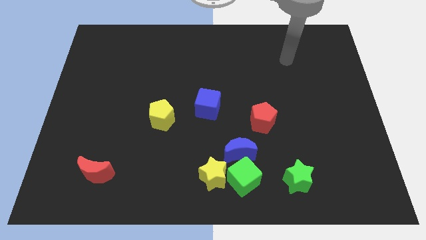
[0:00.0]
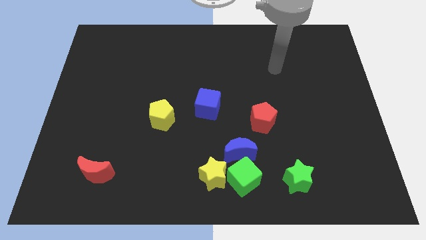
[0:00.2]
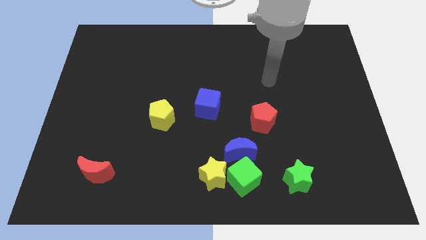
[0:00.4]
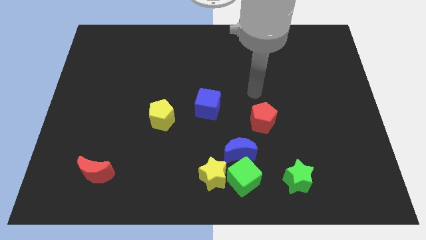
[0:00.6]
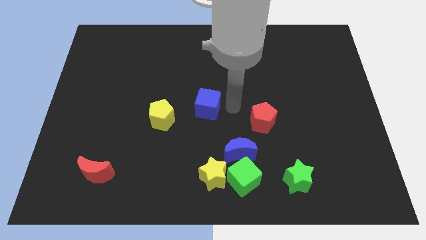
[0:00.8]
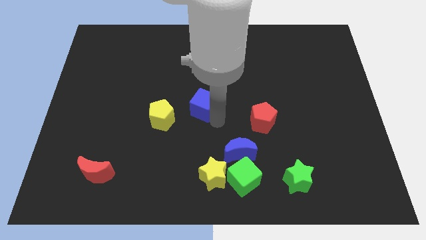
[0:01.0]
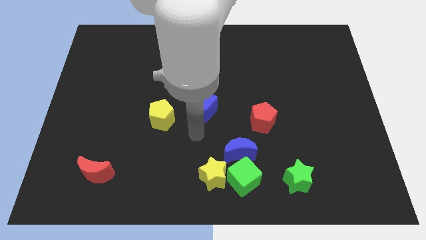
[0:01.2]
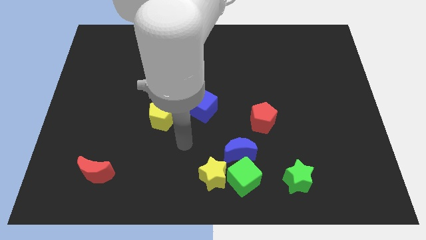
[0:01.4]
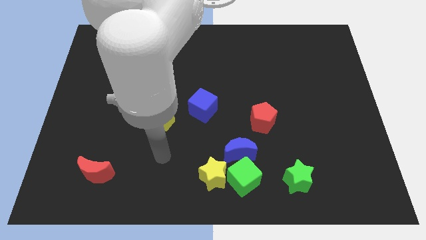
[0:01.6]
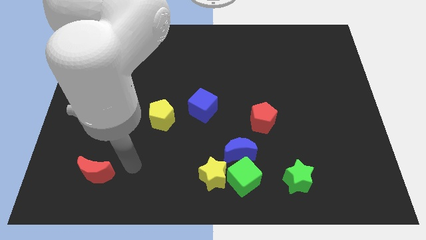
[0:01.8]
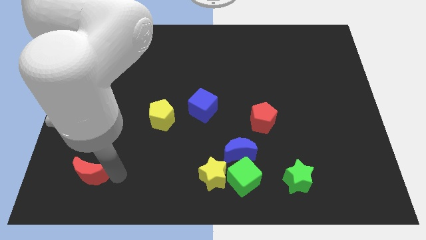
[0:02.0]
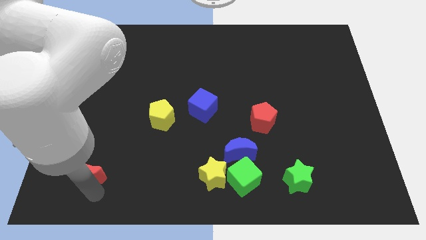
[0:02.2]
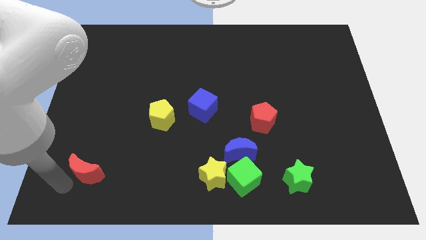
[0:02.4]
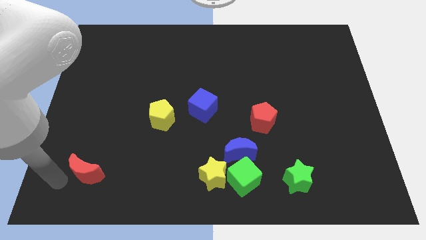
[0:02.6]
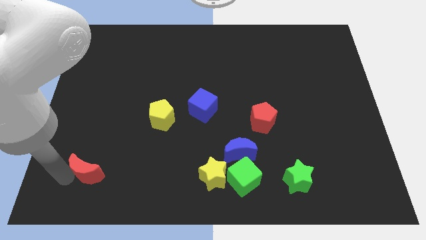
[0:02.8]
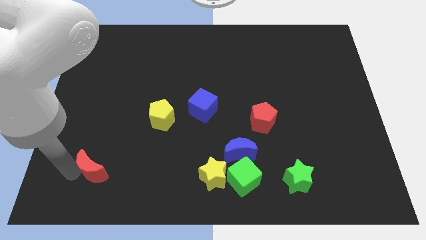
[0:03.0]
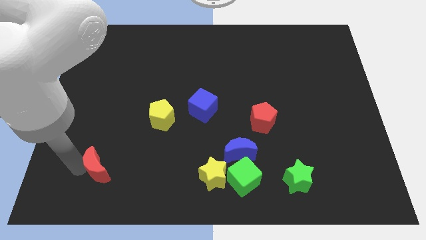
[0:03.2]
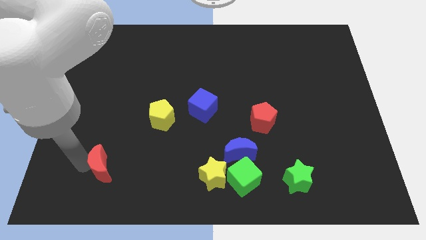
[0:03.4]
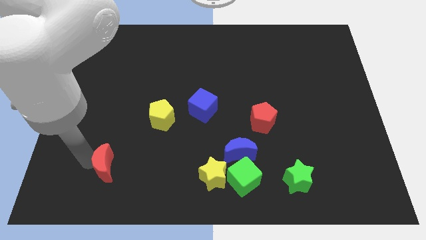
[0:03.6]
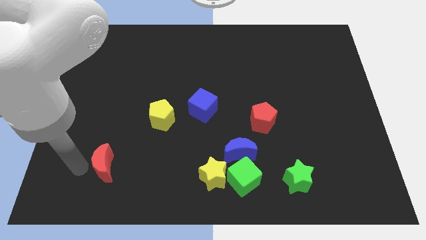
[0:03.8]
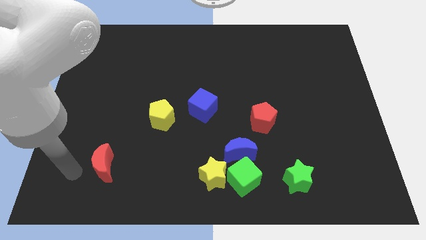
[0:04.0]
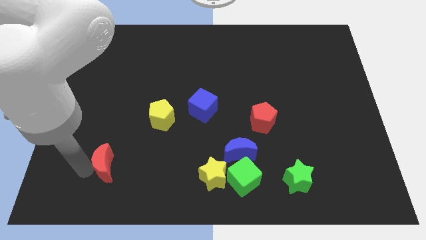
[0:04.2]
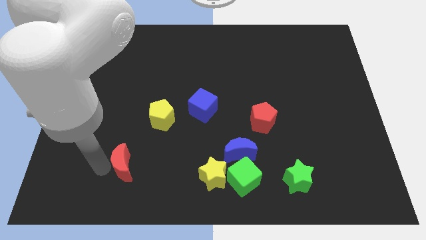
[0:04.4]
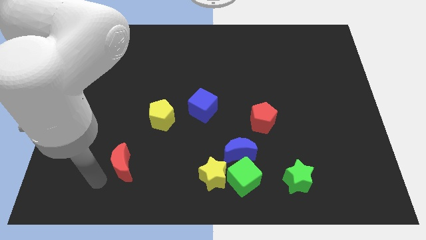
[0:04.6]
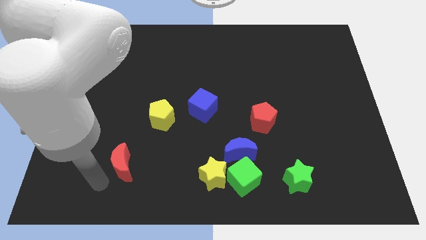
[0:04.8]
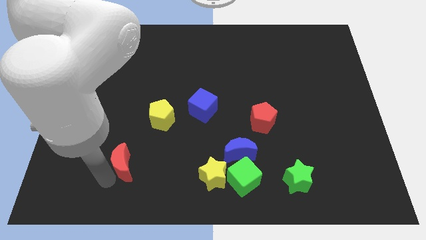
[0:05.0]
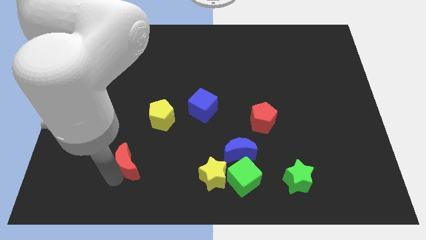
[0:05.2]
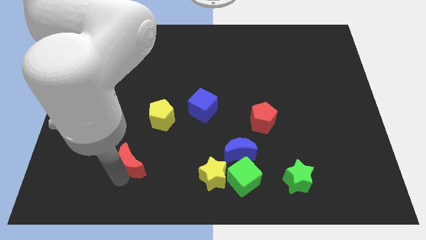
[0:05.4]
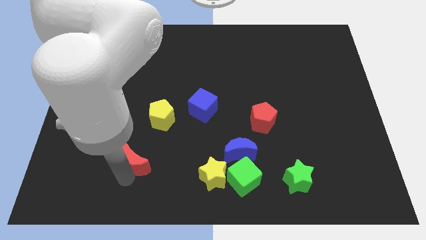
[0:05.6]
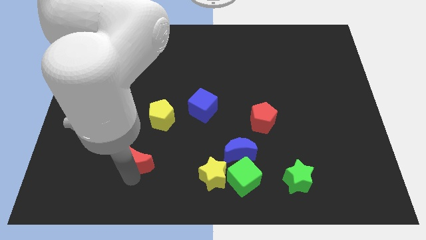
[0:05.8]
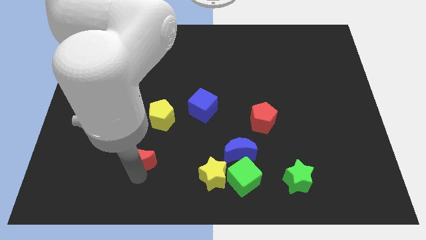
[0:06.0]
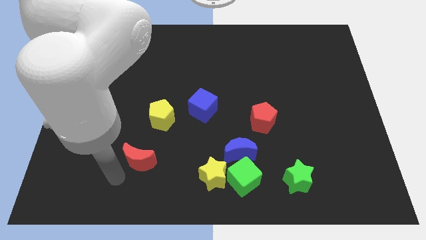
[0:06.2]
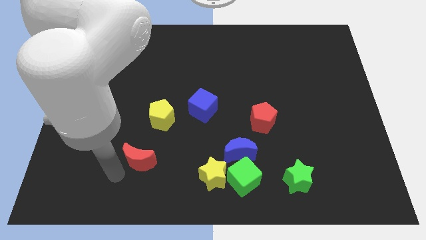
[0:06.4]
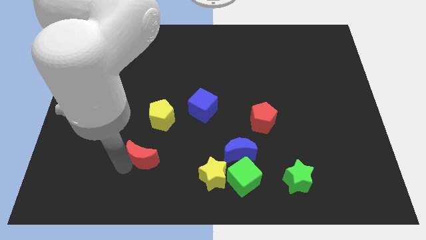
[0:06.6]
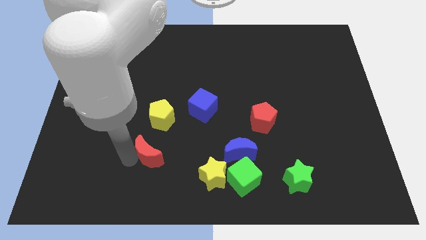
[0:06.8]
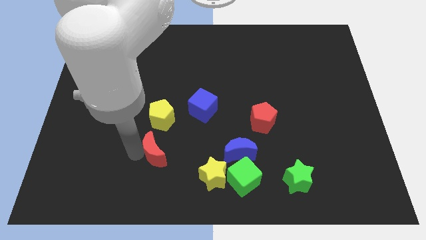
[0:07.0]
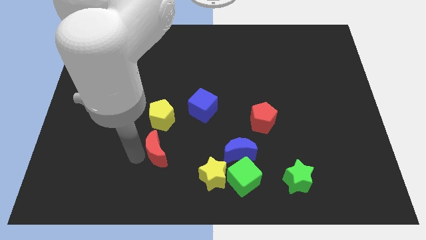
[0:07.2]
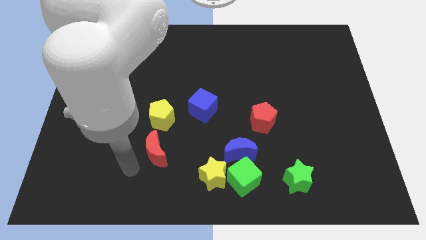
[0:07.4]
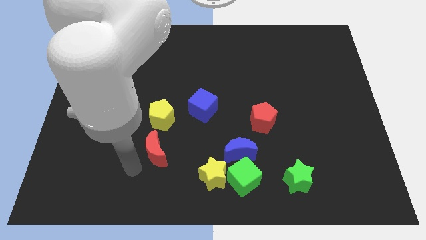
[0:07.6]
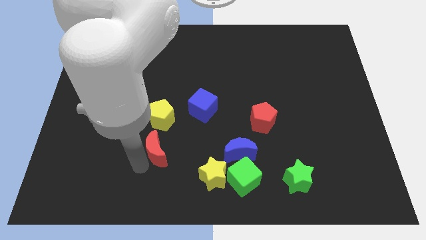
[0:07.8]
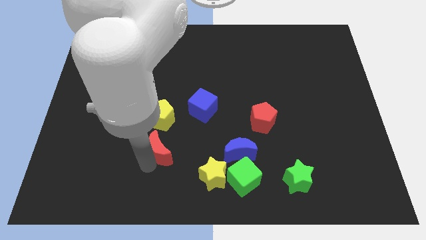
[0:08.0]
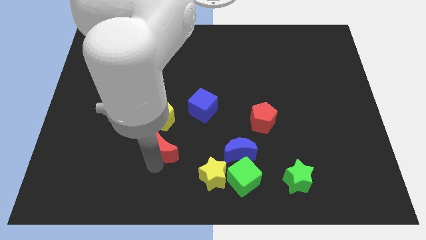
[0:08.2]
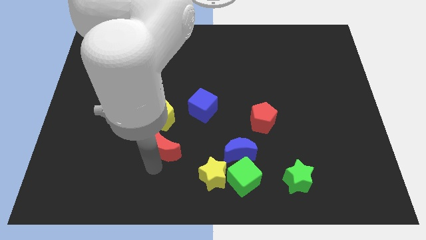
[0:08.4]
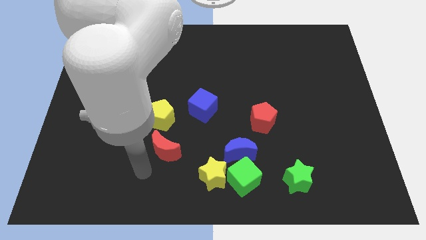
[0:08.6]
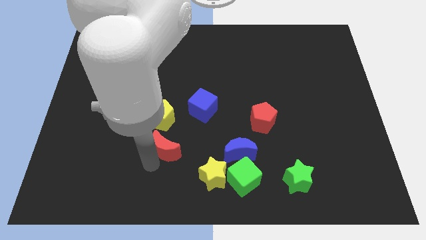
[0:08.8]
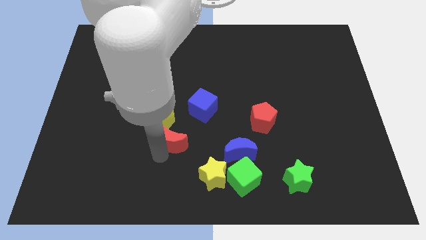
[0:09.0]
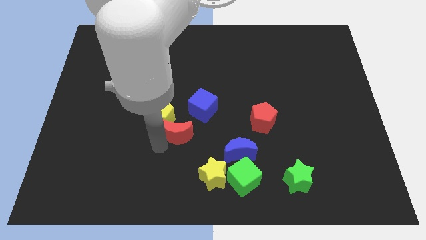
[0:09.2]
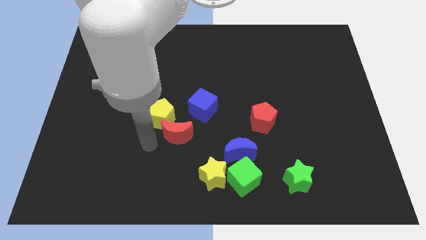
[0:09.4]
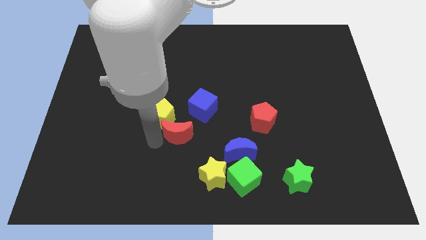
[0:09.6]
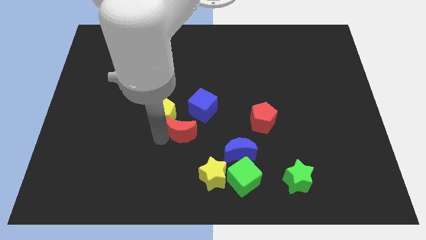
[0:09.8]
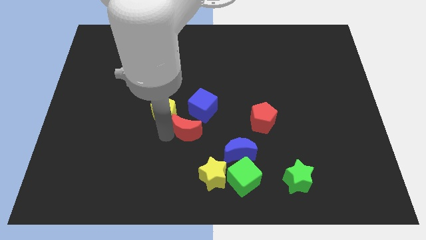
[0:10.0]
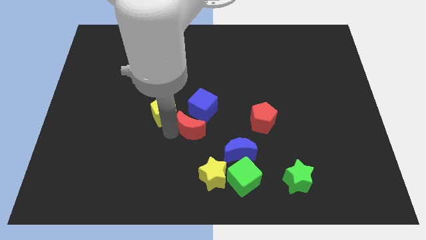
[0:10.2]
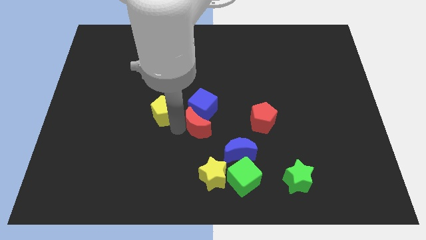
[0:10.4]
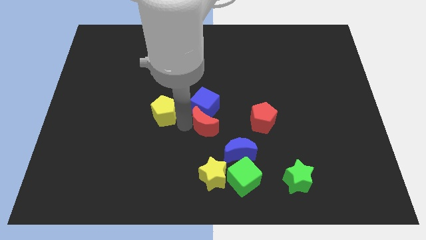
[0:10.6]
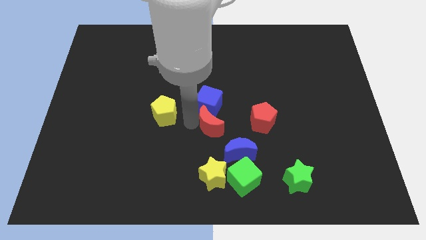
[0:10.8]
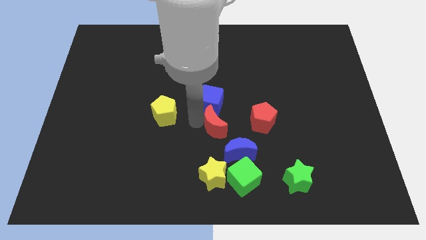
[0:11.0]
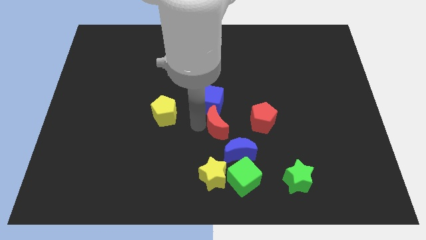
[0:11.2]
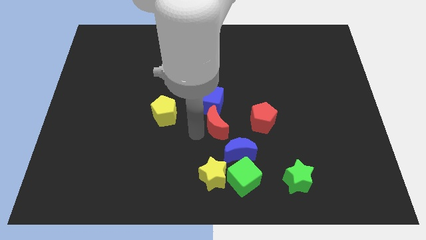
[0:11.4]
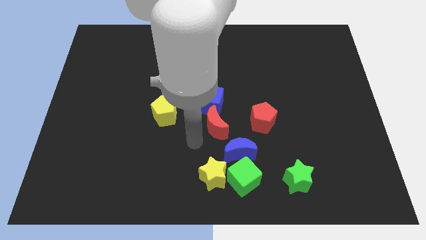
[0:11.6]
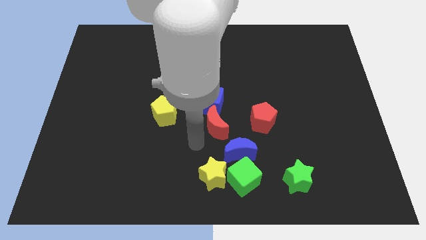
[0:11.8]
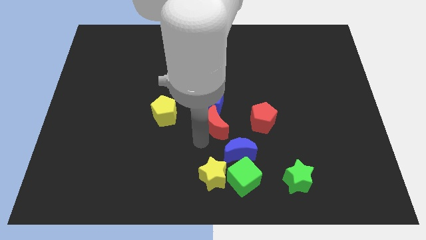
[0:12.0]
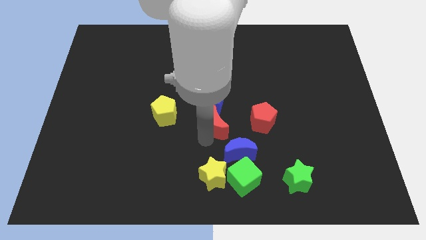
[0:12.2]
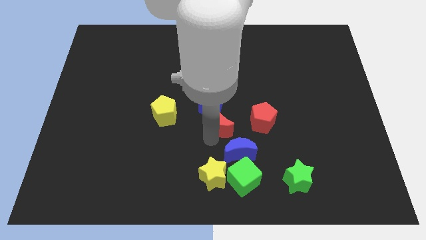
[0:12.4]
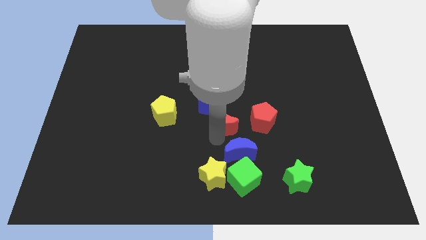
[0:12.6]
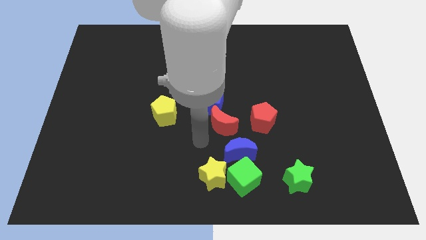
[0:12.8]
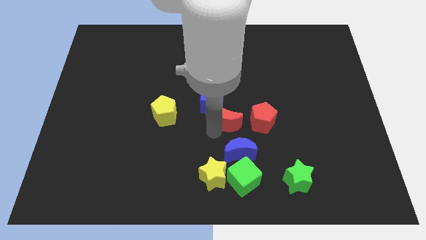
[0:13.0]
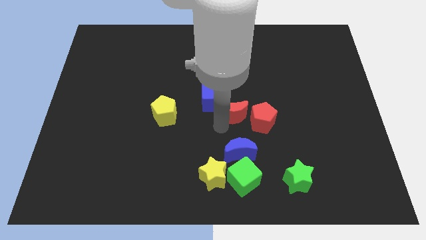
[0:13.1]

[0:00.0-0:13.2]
push the red moon right of the blue cube

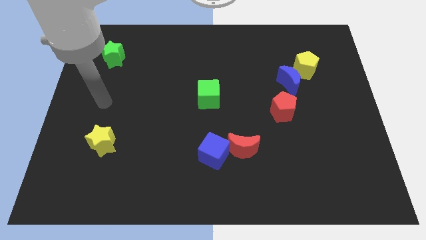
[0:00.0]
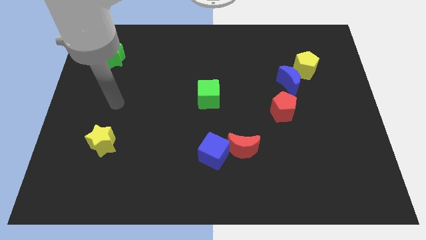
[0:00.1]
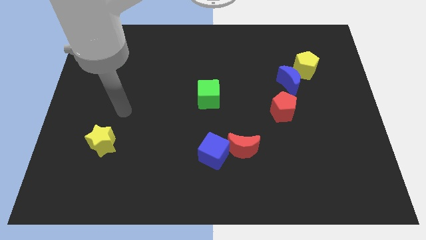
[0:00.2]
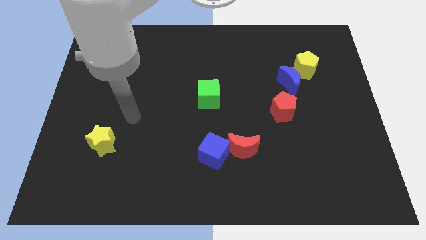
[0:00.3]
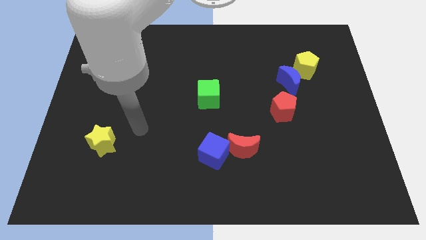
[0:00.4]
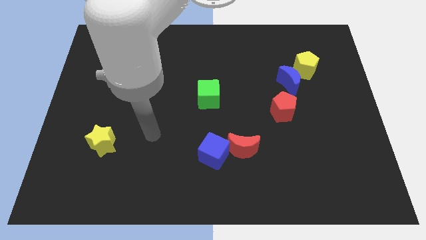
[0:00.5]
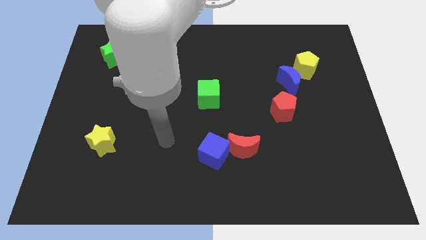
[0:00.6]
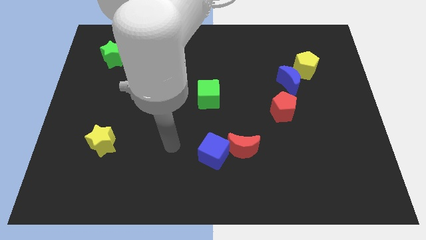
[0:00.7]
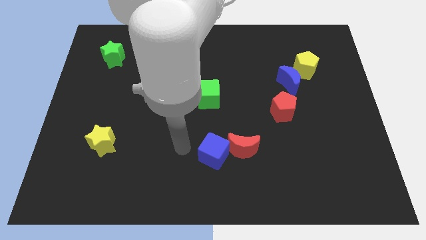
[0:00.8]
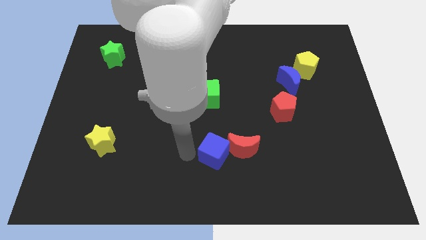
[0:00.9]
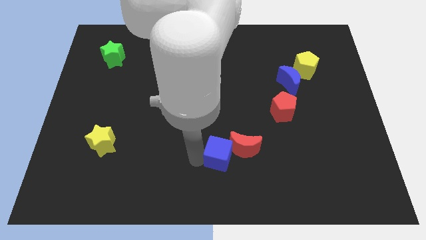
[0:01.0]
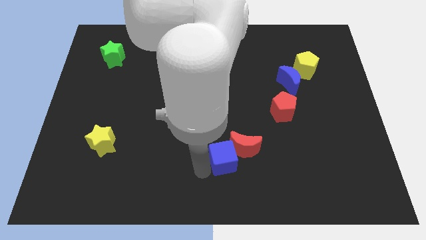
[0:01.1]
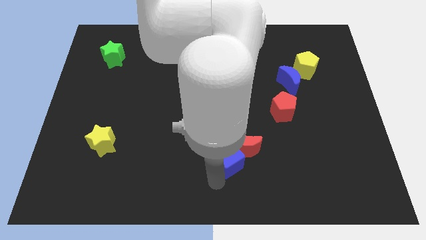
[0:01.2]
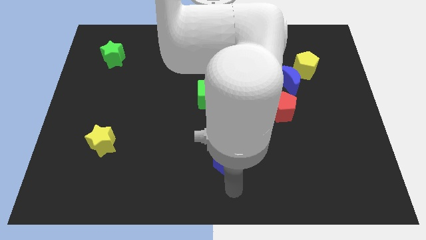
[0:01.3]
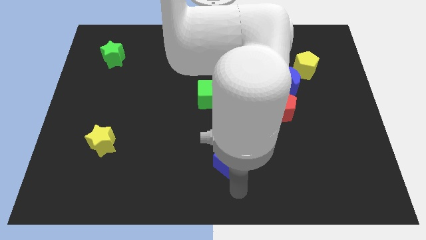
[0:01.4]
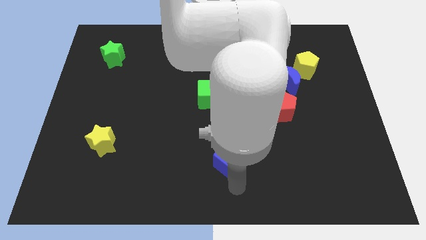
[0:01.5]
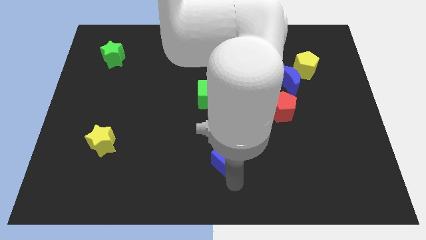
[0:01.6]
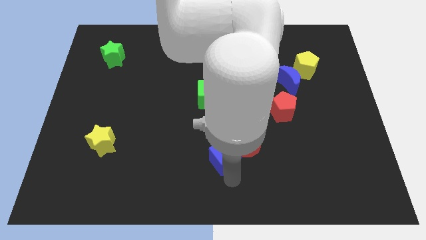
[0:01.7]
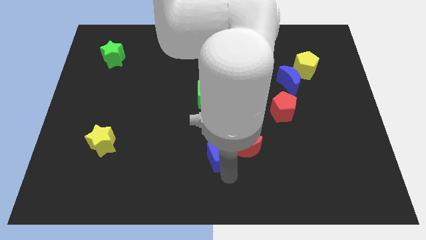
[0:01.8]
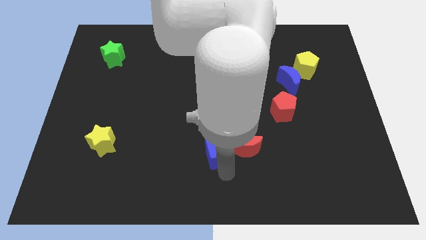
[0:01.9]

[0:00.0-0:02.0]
put the blue cube to the top left of the red moon
